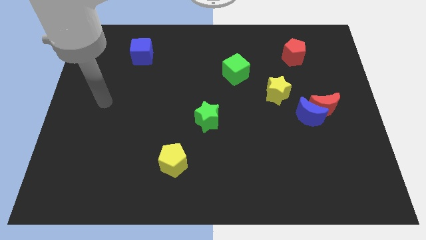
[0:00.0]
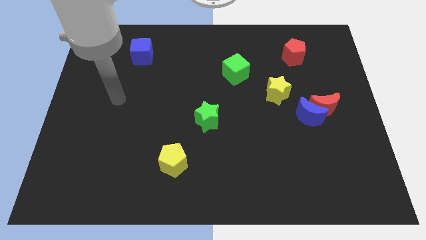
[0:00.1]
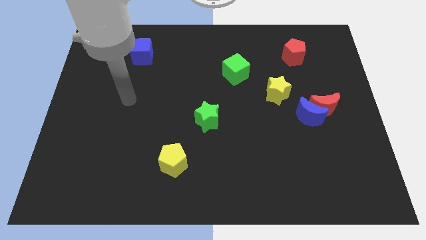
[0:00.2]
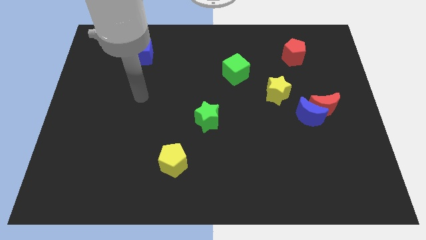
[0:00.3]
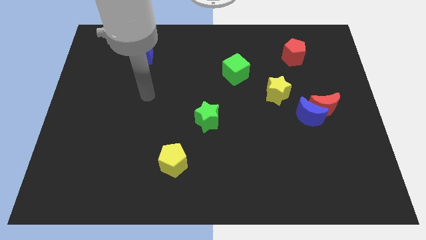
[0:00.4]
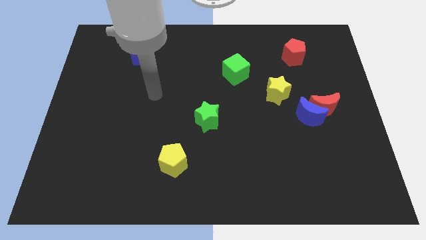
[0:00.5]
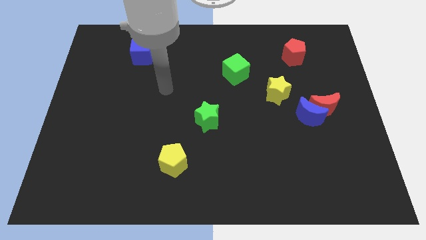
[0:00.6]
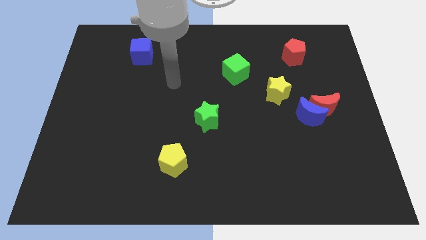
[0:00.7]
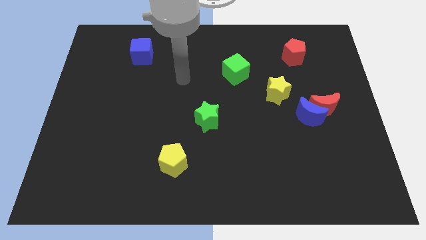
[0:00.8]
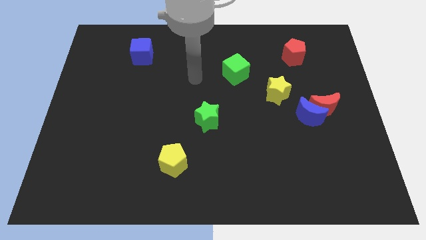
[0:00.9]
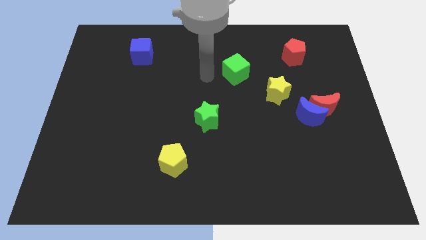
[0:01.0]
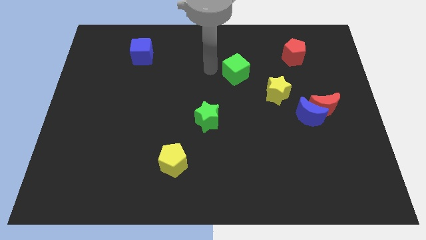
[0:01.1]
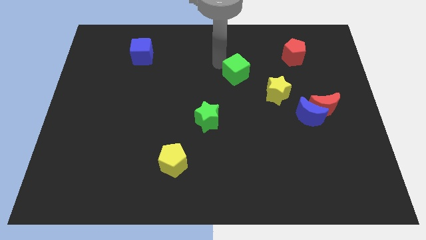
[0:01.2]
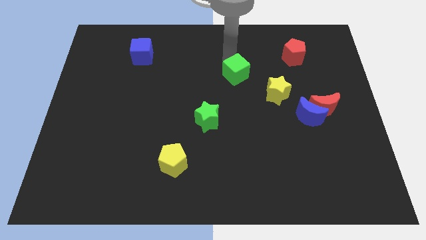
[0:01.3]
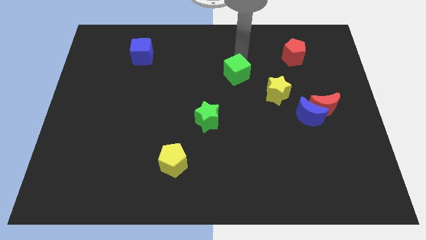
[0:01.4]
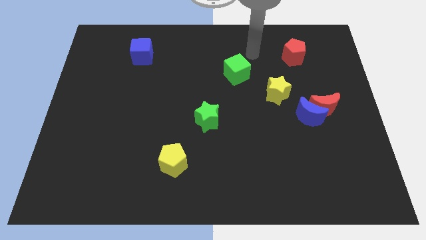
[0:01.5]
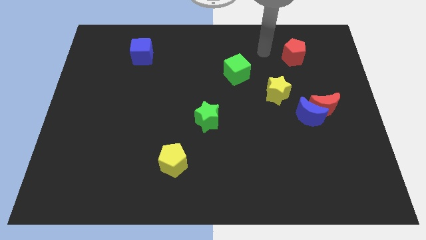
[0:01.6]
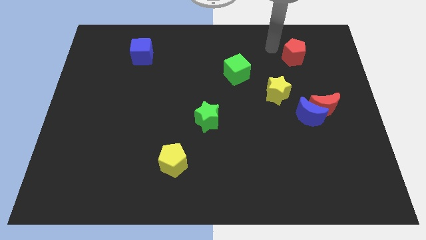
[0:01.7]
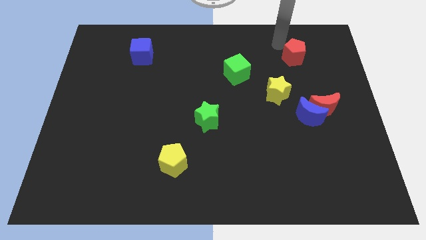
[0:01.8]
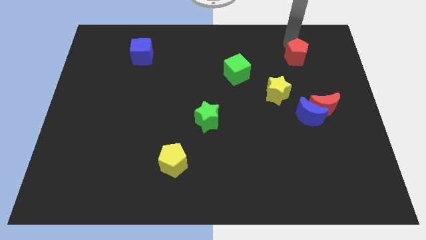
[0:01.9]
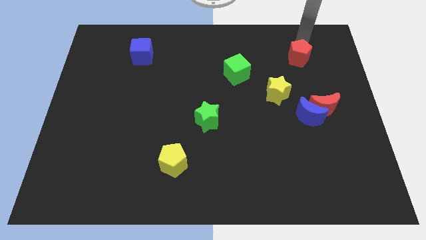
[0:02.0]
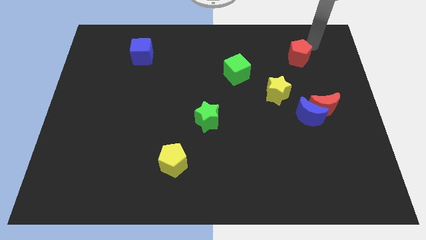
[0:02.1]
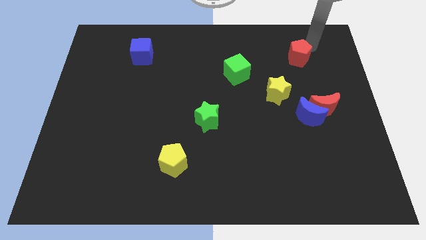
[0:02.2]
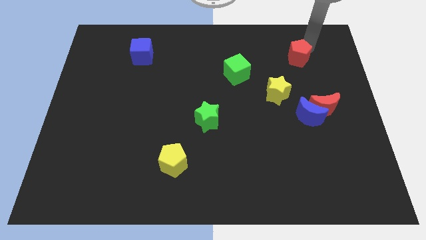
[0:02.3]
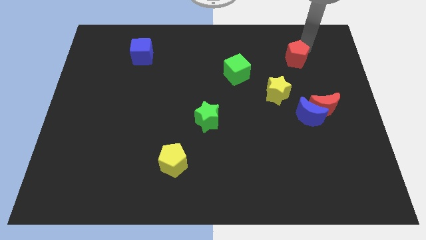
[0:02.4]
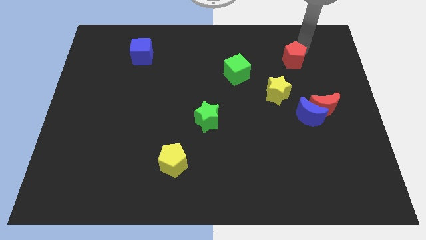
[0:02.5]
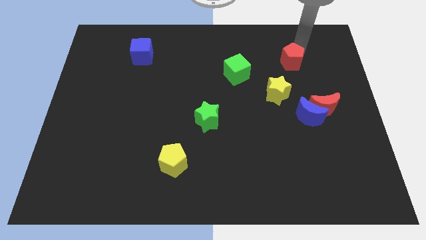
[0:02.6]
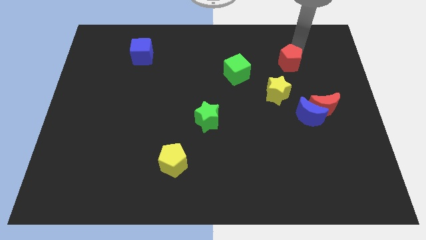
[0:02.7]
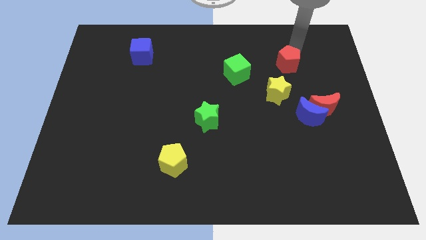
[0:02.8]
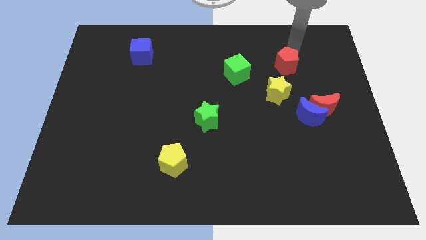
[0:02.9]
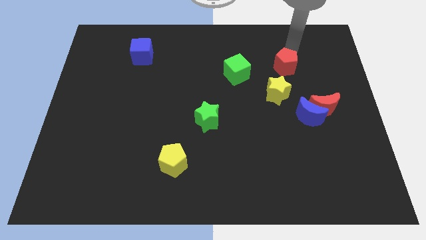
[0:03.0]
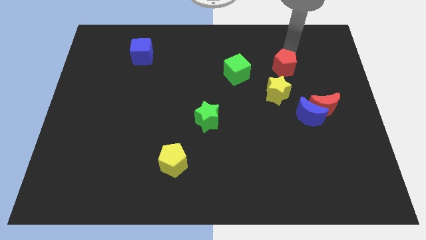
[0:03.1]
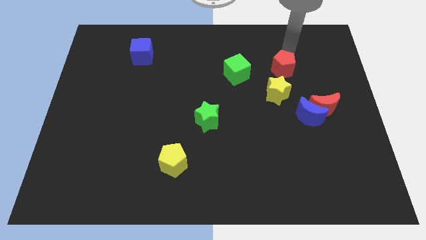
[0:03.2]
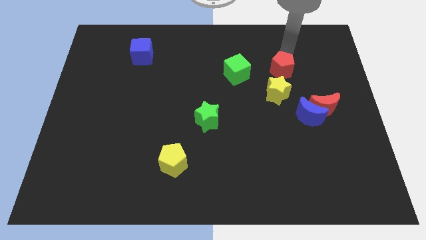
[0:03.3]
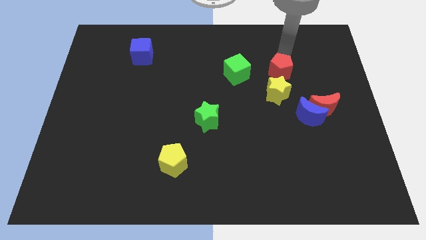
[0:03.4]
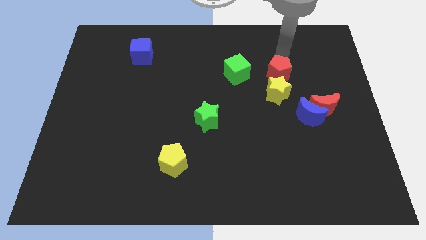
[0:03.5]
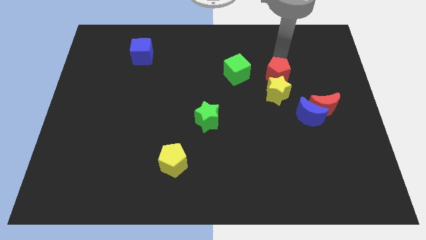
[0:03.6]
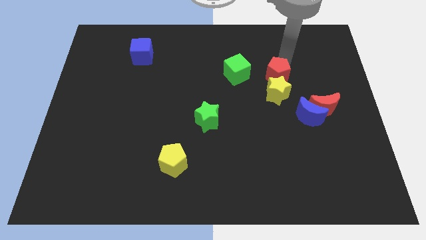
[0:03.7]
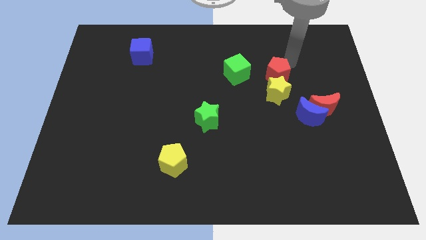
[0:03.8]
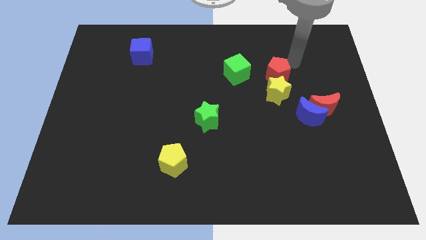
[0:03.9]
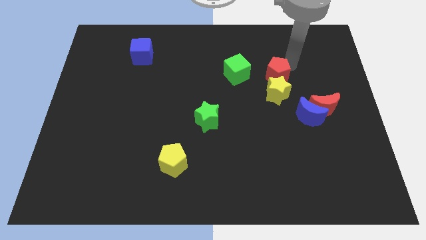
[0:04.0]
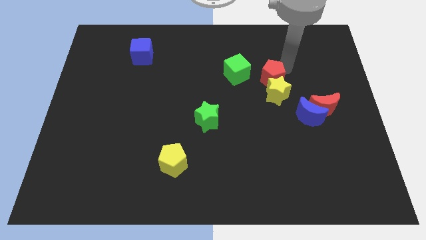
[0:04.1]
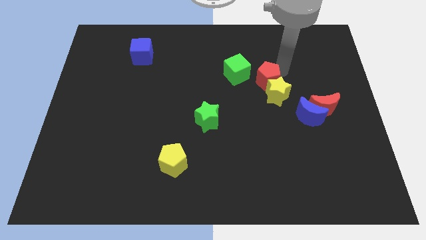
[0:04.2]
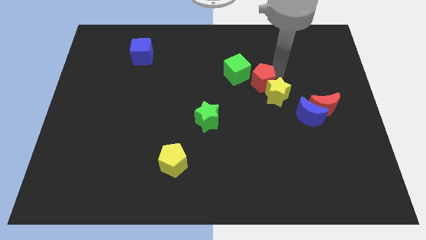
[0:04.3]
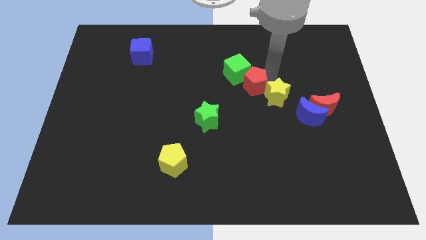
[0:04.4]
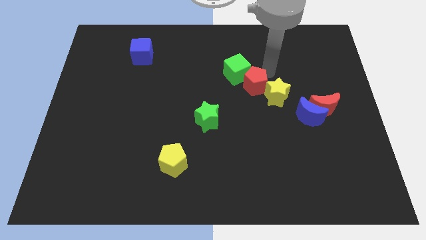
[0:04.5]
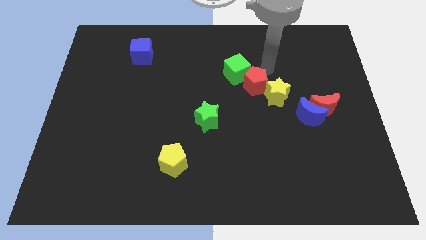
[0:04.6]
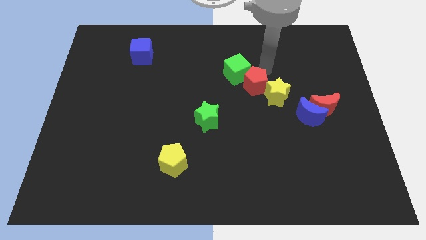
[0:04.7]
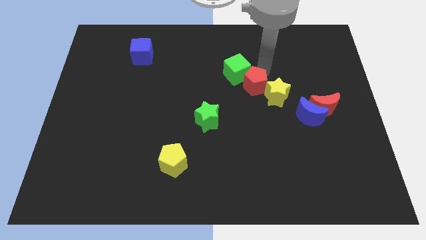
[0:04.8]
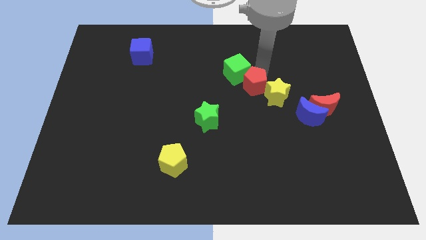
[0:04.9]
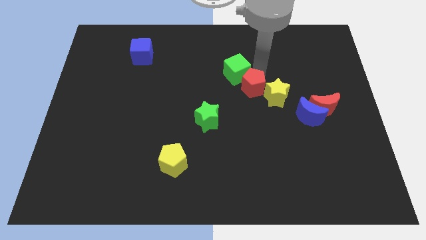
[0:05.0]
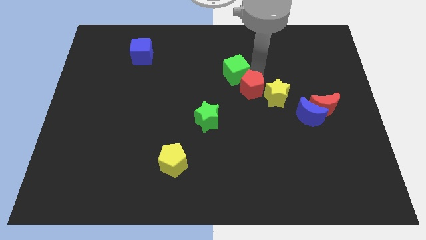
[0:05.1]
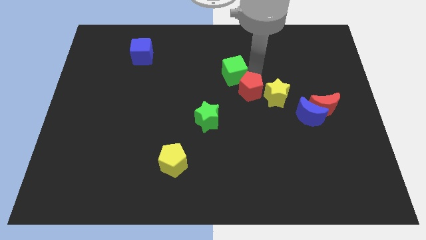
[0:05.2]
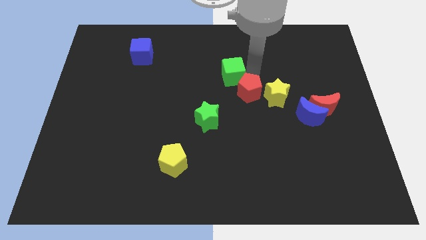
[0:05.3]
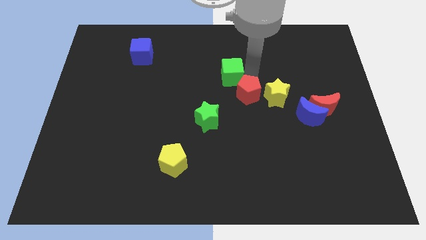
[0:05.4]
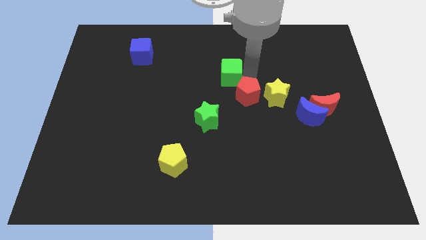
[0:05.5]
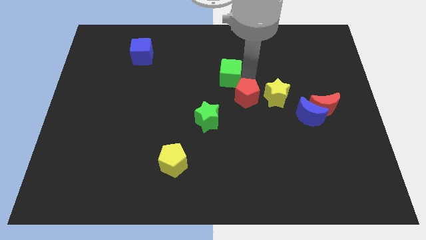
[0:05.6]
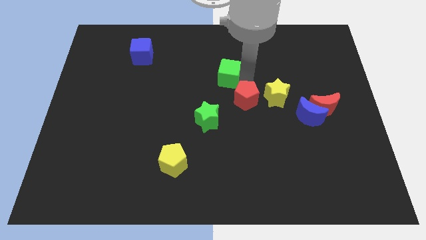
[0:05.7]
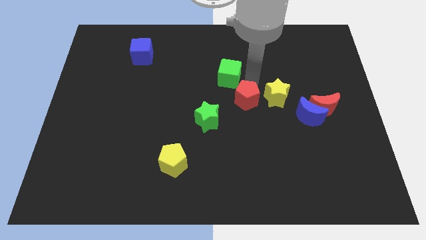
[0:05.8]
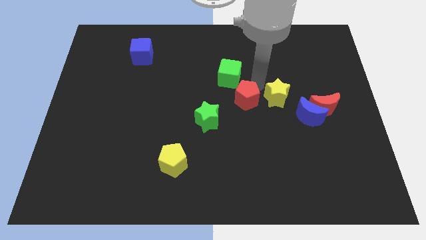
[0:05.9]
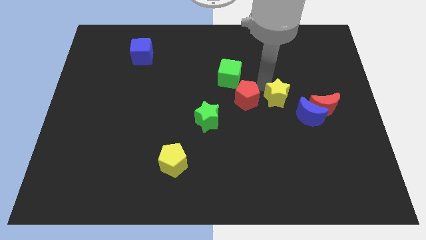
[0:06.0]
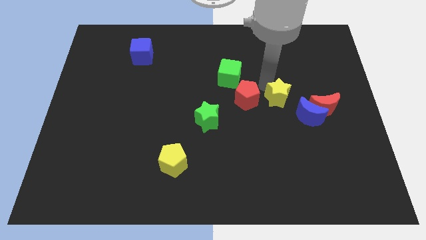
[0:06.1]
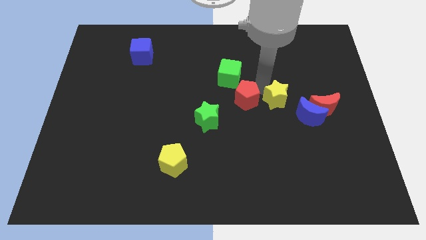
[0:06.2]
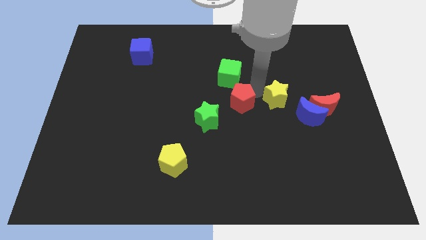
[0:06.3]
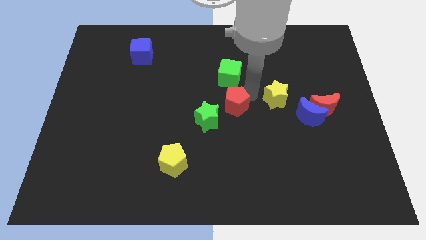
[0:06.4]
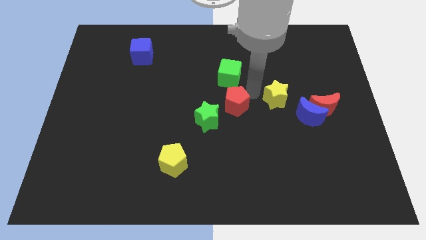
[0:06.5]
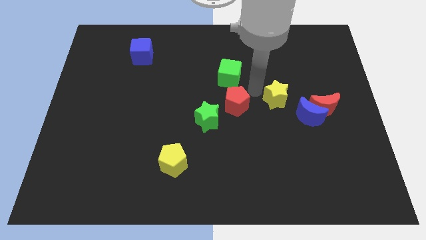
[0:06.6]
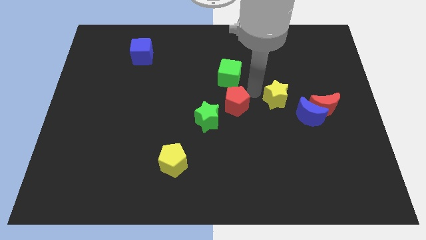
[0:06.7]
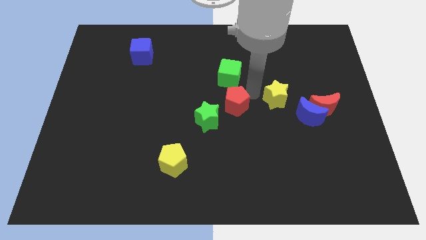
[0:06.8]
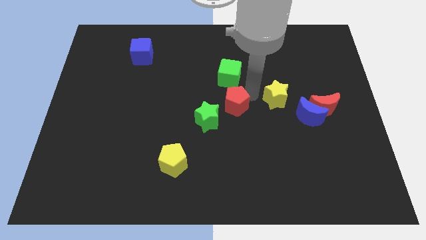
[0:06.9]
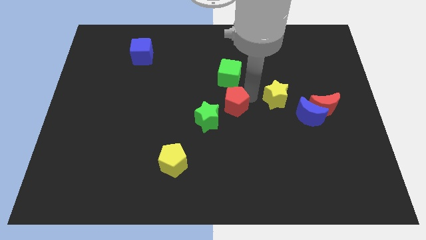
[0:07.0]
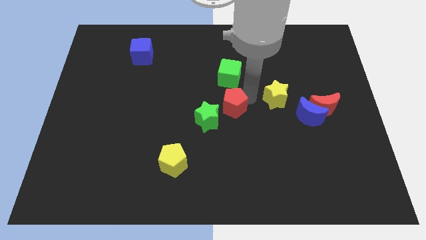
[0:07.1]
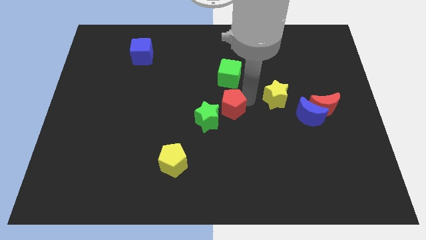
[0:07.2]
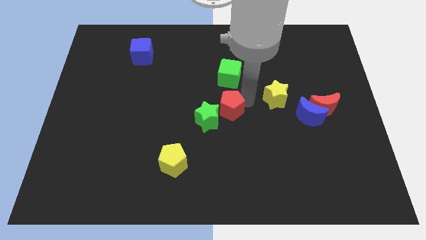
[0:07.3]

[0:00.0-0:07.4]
put the red pentagon next to the green star
